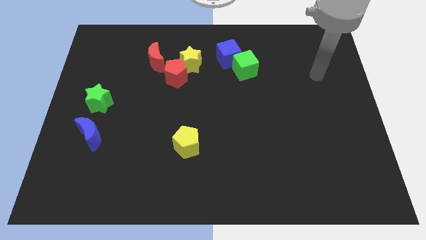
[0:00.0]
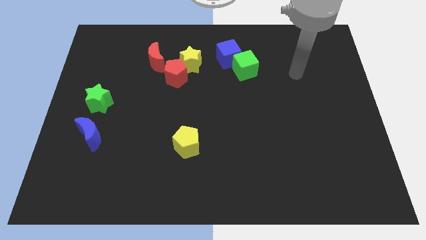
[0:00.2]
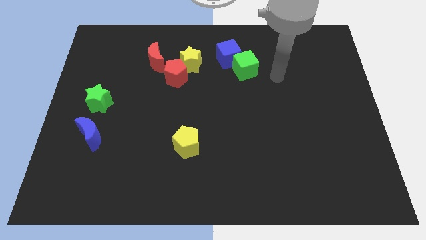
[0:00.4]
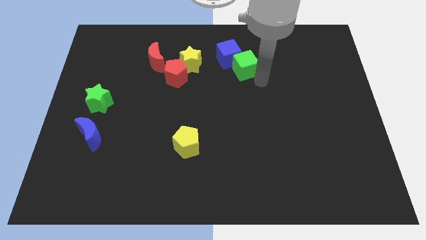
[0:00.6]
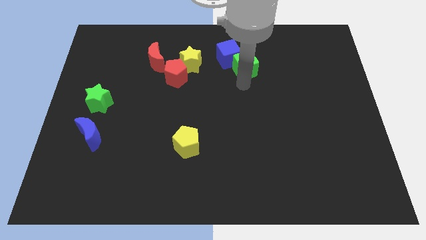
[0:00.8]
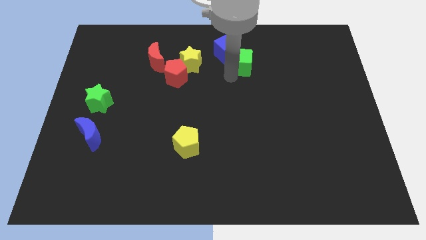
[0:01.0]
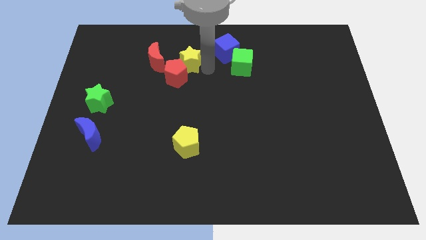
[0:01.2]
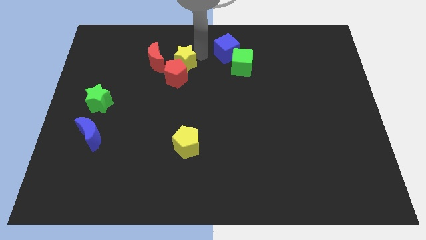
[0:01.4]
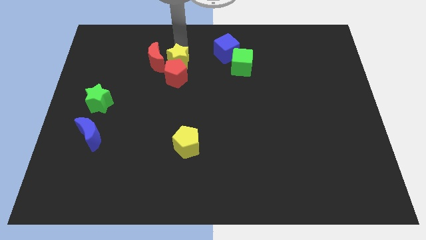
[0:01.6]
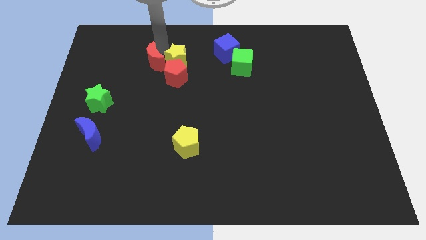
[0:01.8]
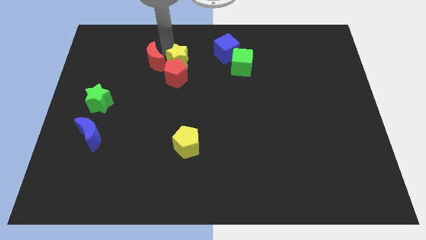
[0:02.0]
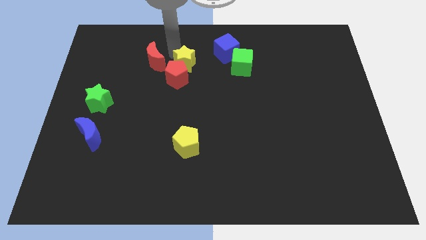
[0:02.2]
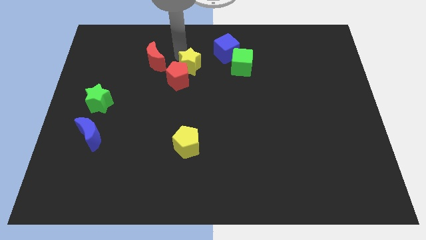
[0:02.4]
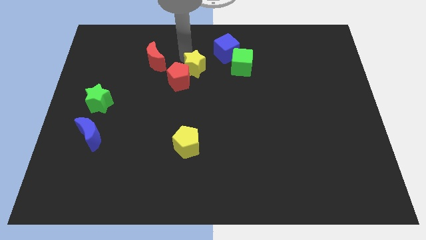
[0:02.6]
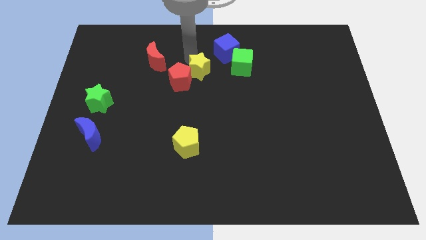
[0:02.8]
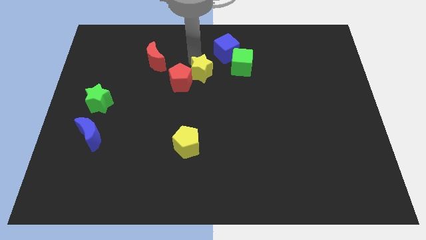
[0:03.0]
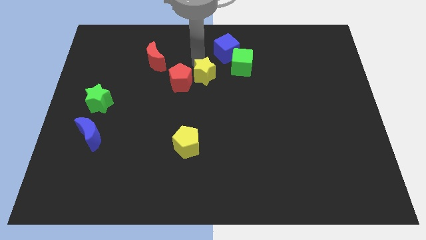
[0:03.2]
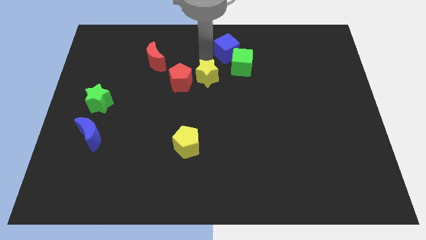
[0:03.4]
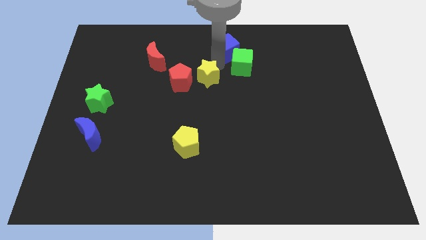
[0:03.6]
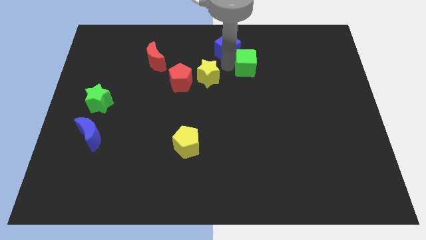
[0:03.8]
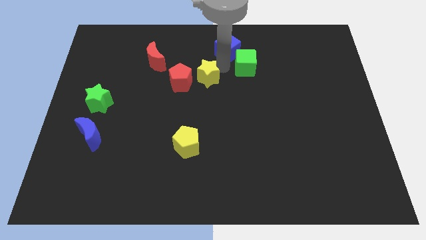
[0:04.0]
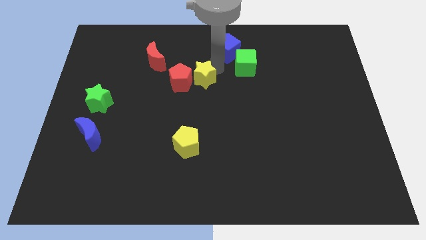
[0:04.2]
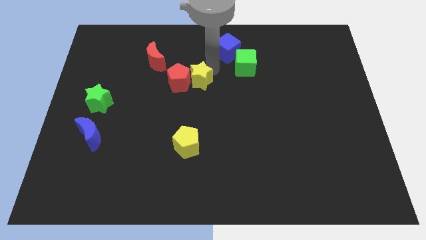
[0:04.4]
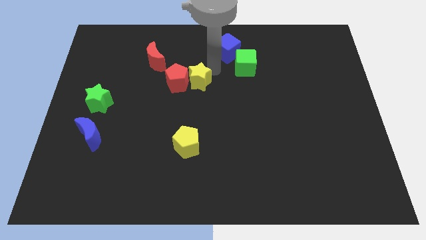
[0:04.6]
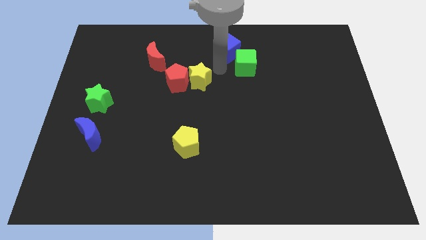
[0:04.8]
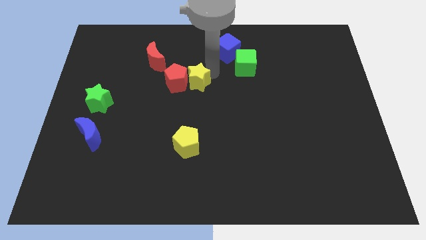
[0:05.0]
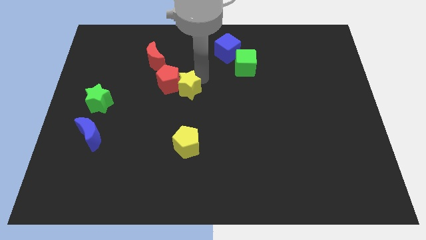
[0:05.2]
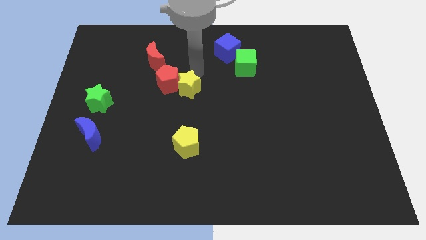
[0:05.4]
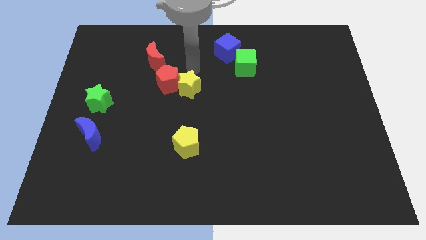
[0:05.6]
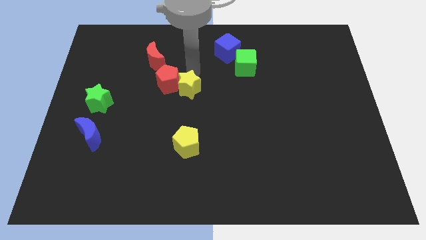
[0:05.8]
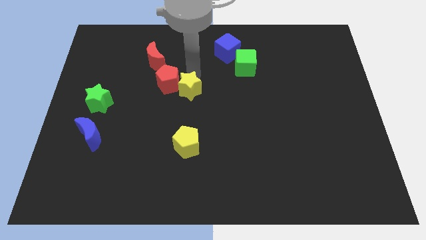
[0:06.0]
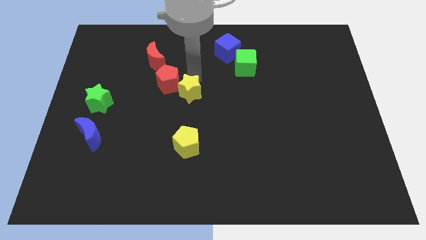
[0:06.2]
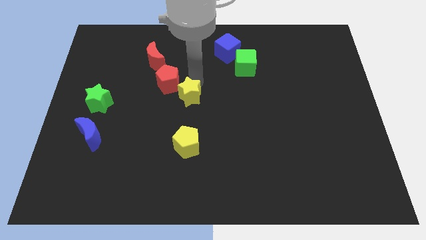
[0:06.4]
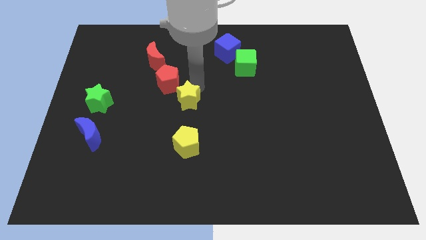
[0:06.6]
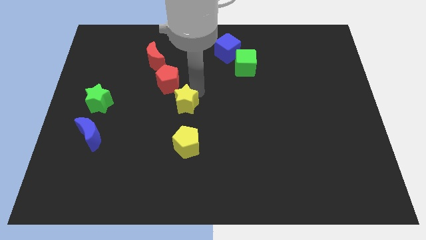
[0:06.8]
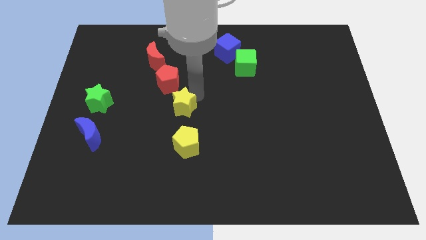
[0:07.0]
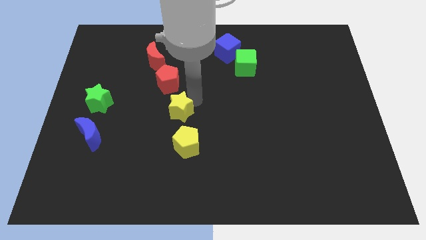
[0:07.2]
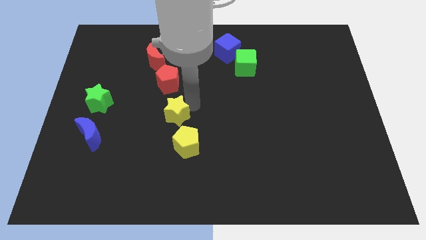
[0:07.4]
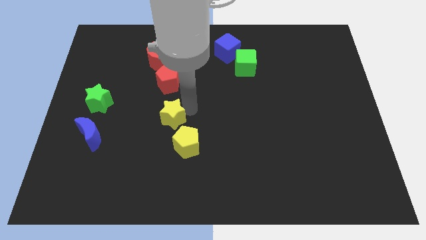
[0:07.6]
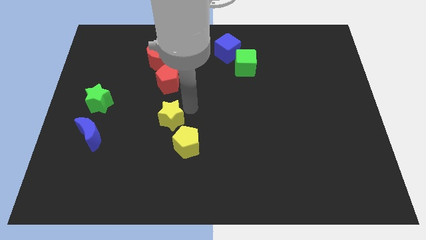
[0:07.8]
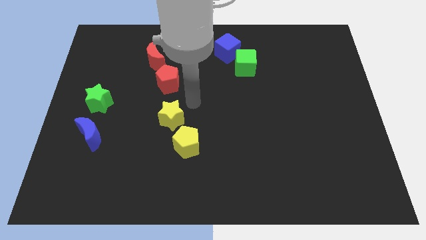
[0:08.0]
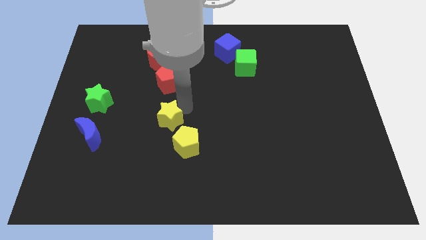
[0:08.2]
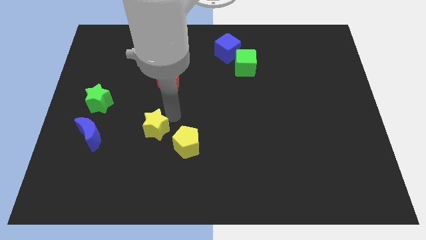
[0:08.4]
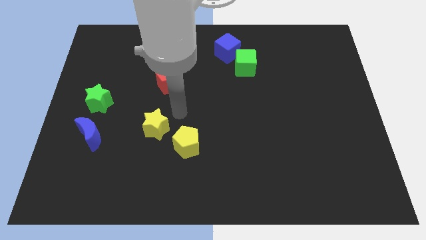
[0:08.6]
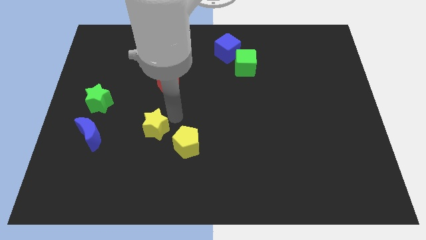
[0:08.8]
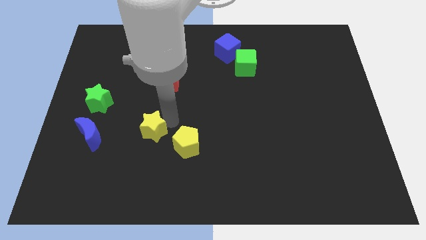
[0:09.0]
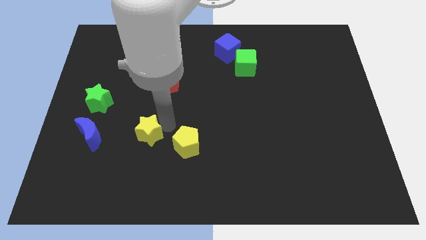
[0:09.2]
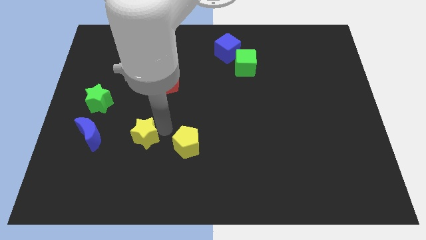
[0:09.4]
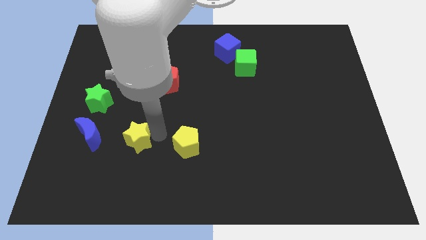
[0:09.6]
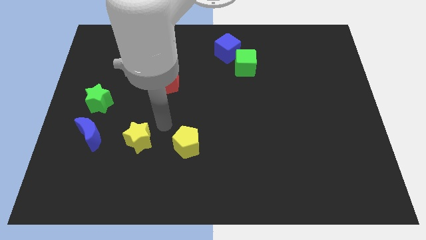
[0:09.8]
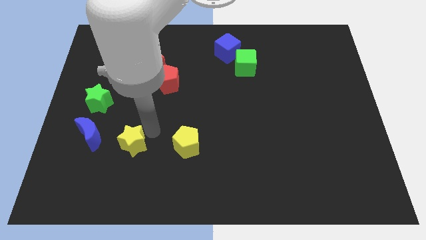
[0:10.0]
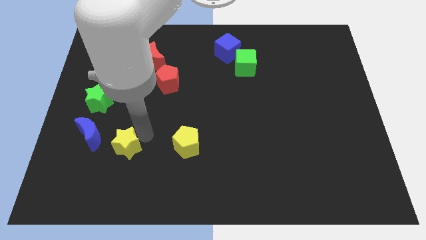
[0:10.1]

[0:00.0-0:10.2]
move the yellow star to the bottom right side of the blue moon

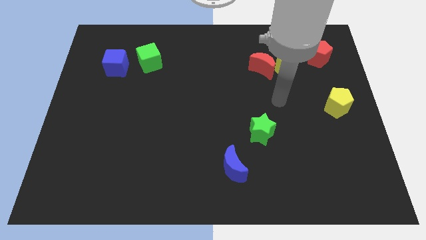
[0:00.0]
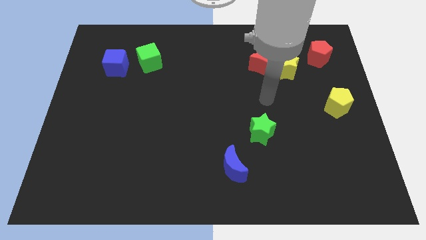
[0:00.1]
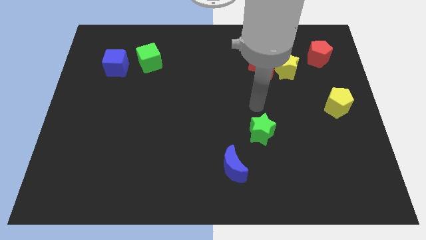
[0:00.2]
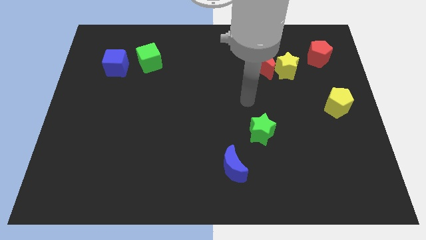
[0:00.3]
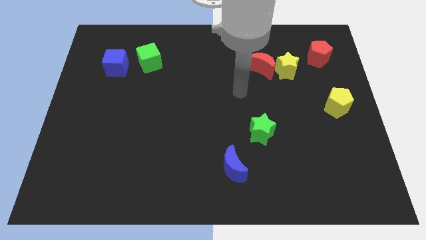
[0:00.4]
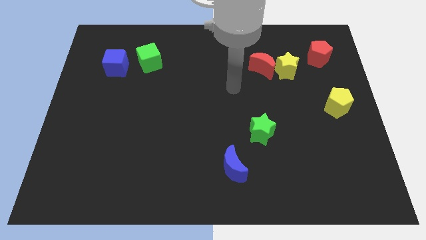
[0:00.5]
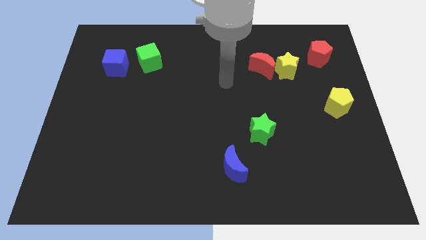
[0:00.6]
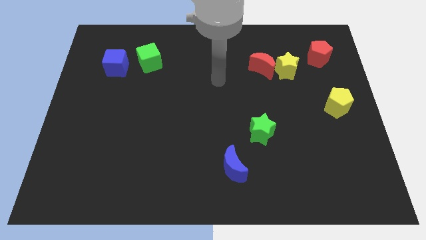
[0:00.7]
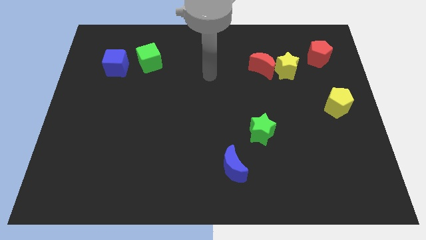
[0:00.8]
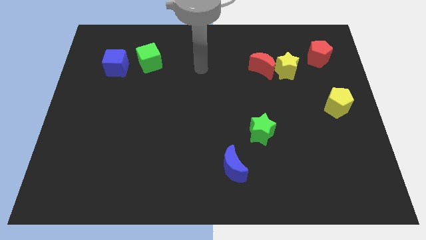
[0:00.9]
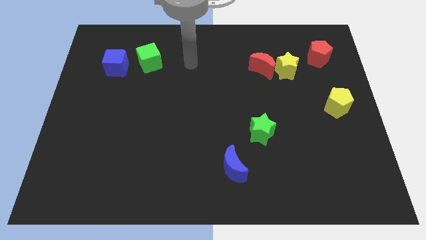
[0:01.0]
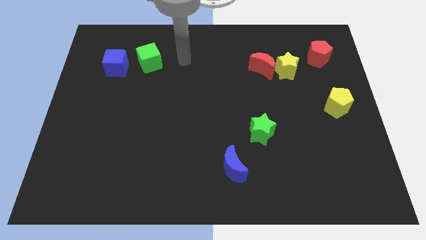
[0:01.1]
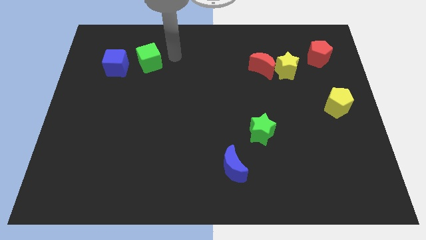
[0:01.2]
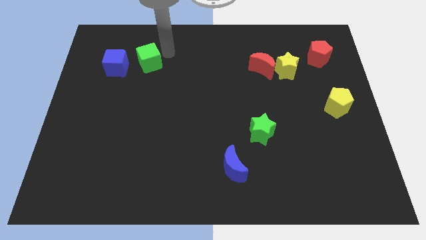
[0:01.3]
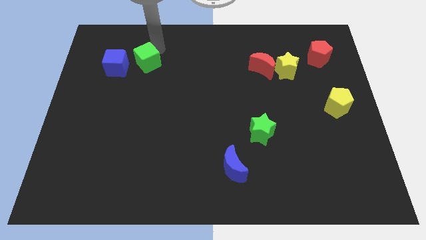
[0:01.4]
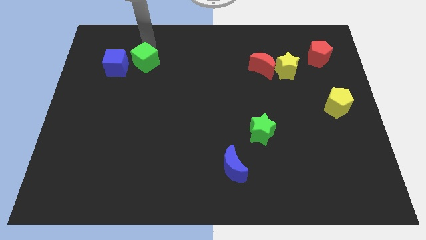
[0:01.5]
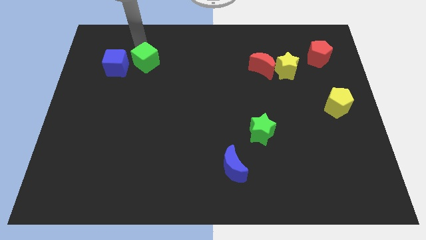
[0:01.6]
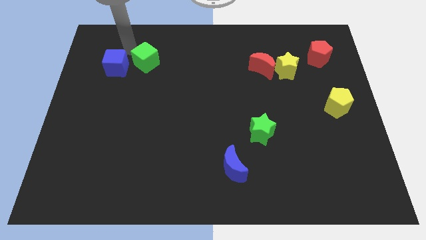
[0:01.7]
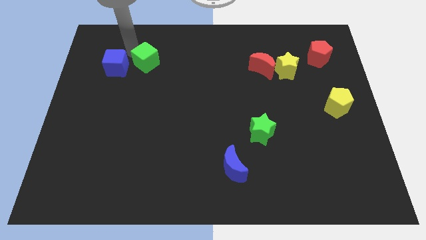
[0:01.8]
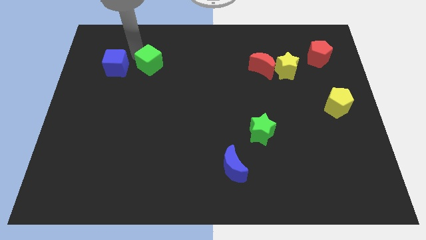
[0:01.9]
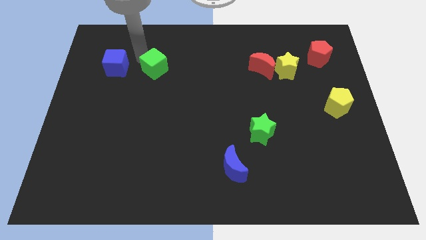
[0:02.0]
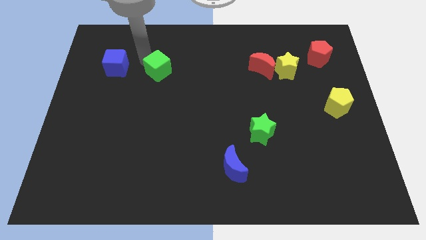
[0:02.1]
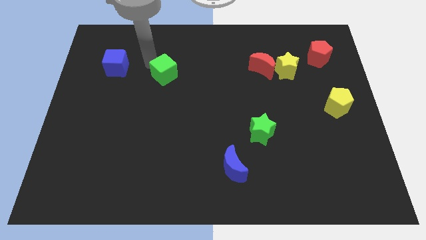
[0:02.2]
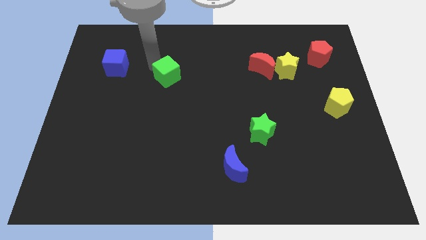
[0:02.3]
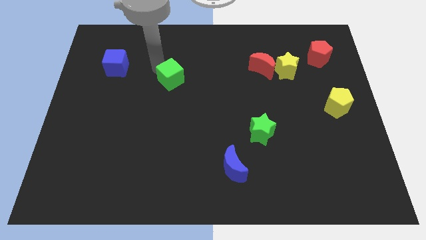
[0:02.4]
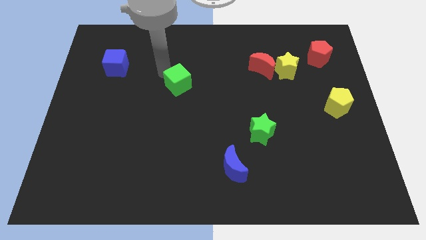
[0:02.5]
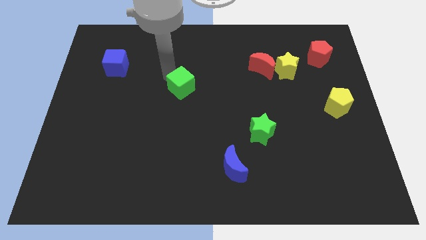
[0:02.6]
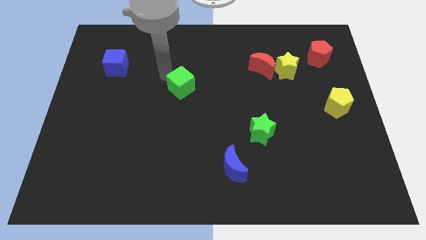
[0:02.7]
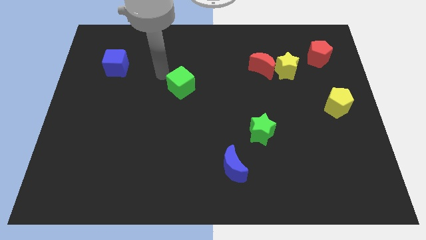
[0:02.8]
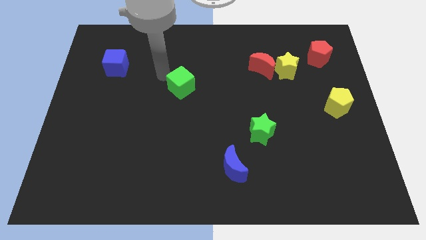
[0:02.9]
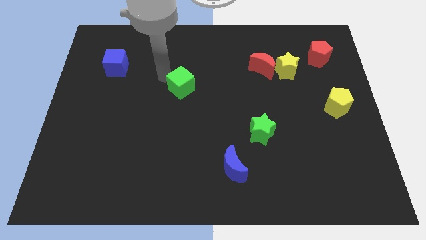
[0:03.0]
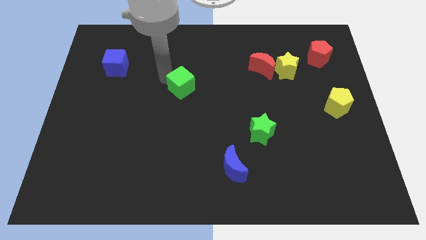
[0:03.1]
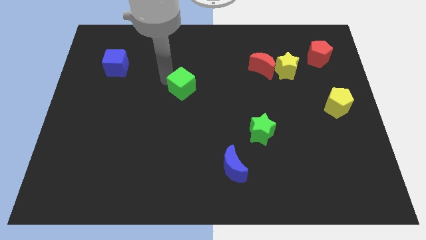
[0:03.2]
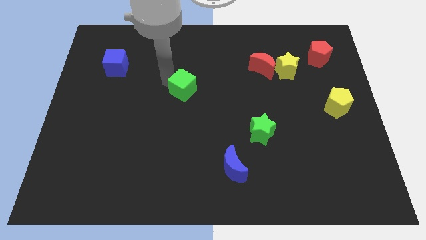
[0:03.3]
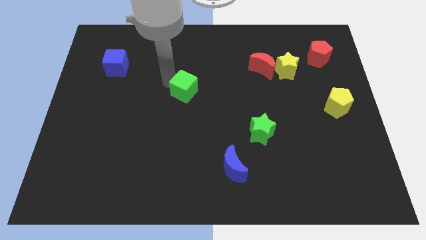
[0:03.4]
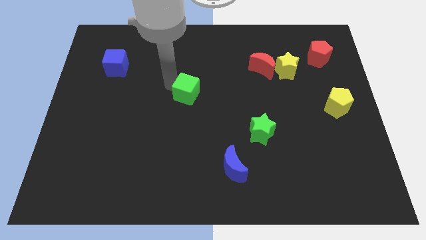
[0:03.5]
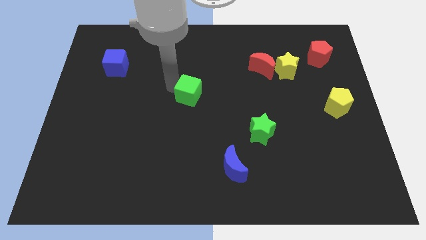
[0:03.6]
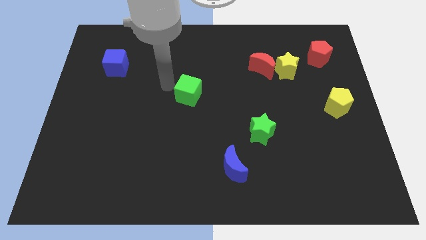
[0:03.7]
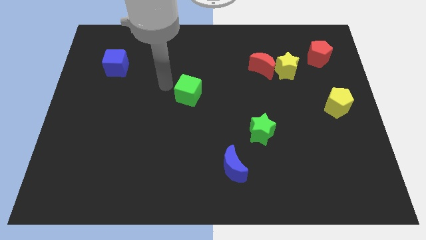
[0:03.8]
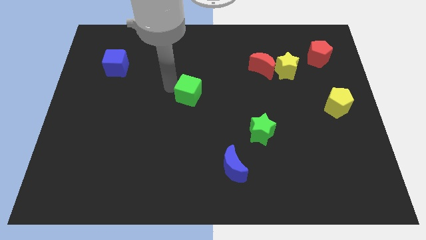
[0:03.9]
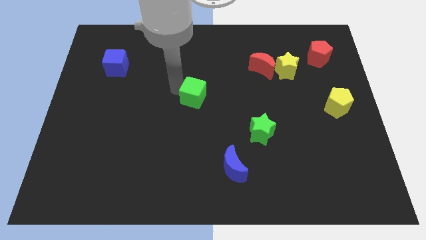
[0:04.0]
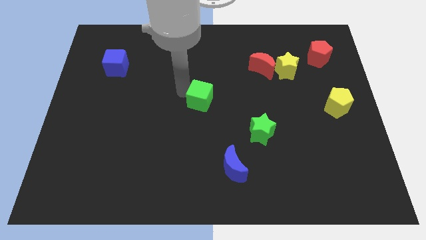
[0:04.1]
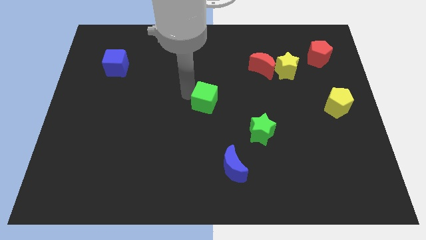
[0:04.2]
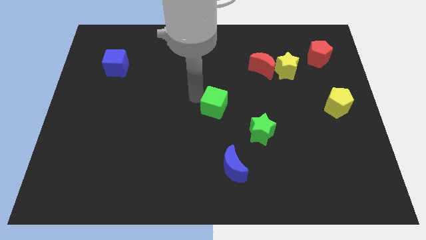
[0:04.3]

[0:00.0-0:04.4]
slide the green cube to the top left side of the green star
